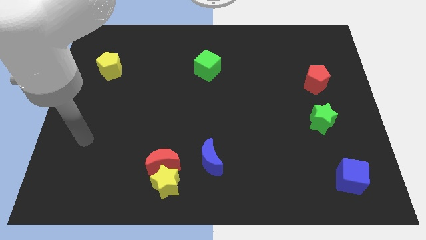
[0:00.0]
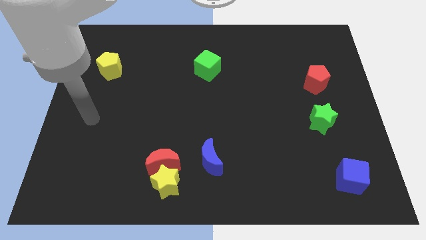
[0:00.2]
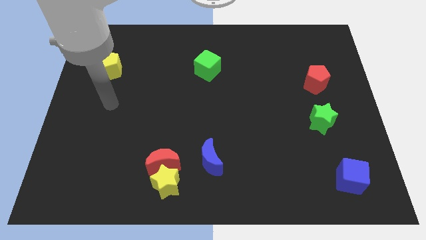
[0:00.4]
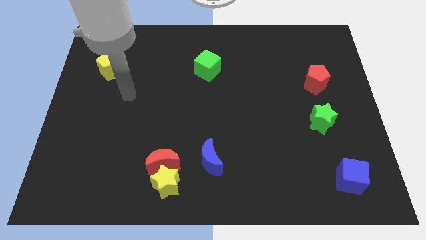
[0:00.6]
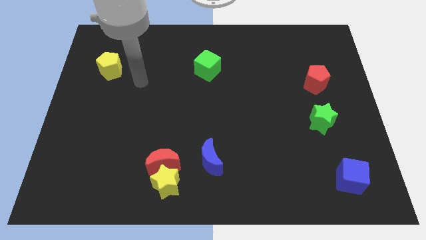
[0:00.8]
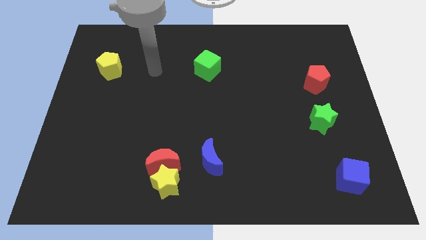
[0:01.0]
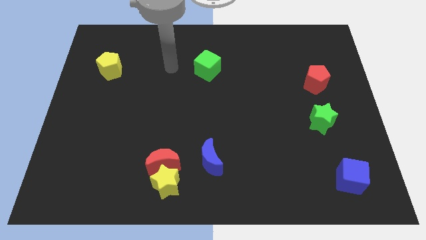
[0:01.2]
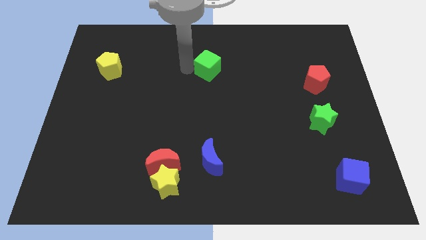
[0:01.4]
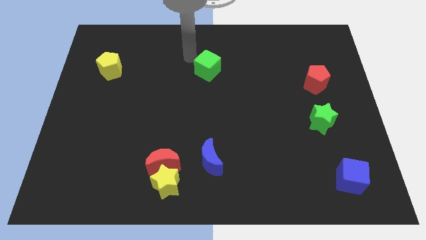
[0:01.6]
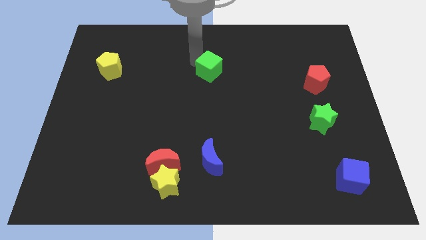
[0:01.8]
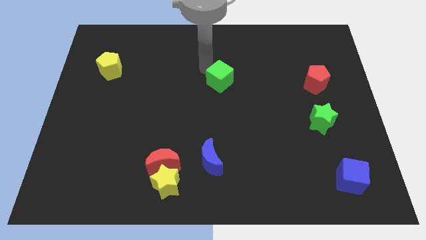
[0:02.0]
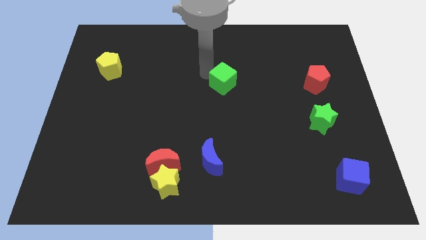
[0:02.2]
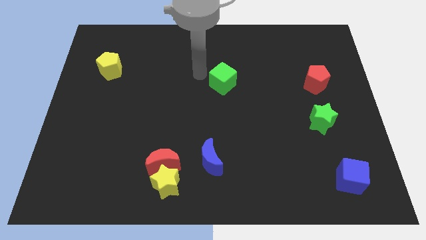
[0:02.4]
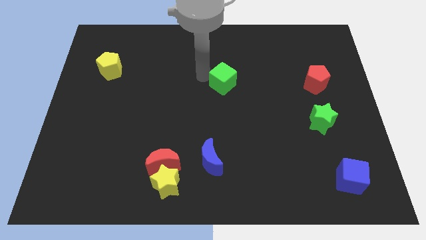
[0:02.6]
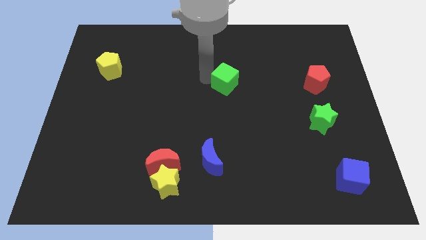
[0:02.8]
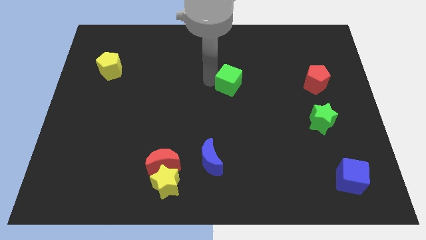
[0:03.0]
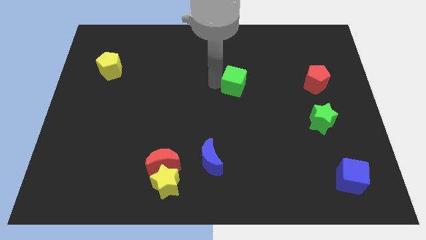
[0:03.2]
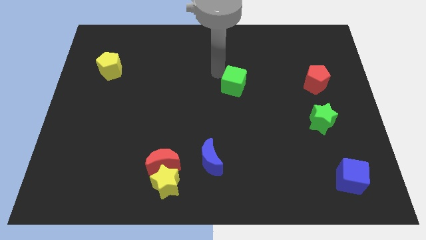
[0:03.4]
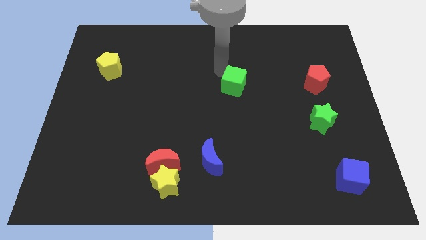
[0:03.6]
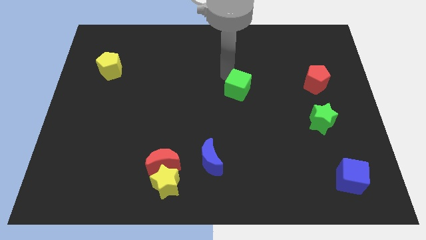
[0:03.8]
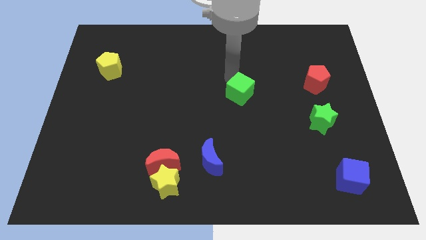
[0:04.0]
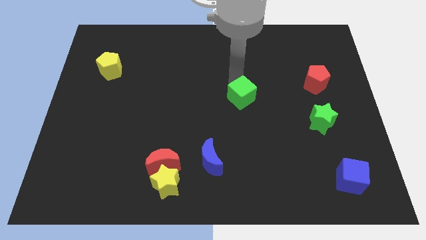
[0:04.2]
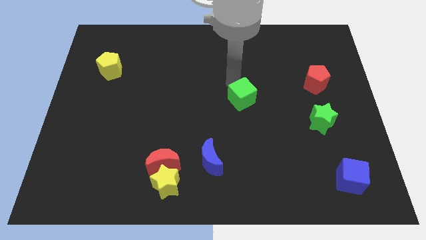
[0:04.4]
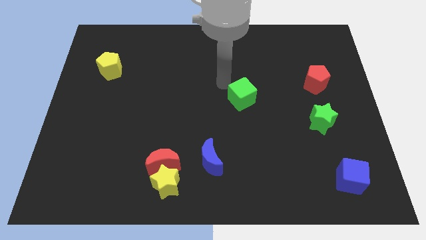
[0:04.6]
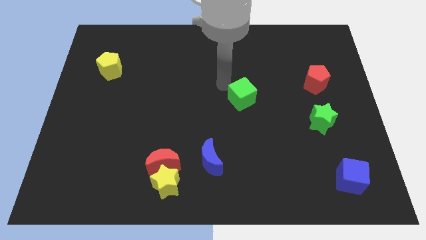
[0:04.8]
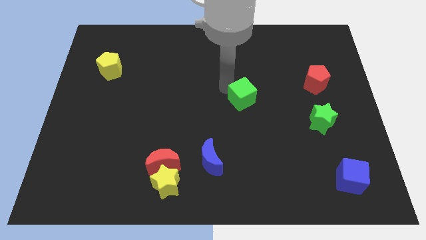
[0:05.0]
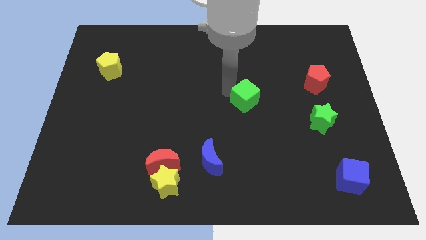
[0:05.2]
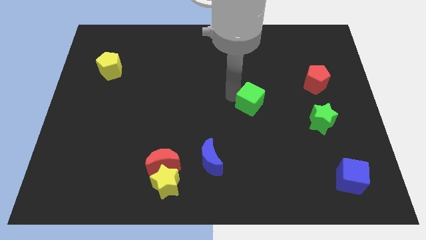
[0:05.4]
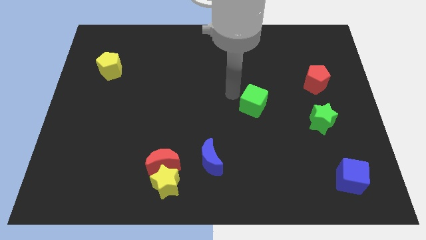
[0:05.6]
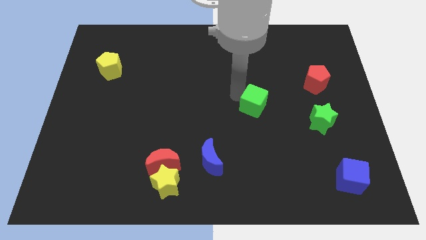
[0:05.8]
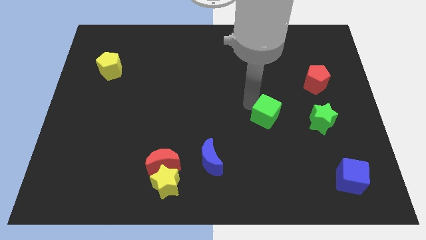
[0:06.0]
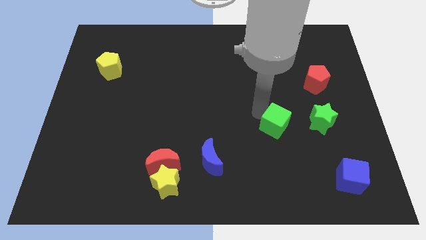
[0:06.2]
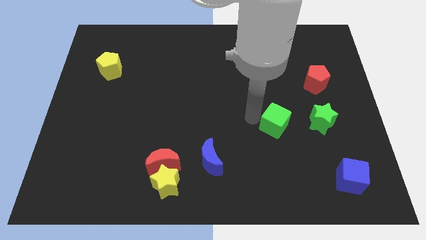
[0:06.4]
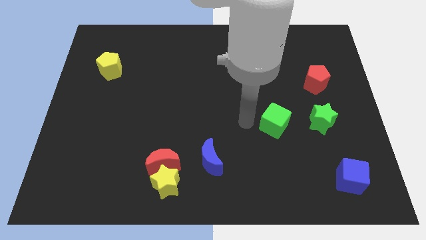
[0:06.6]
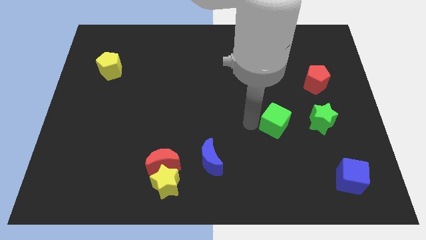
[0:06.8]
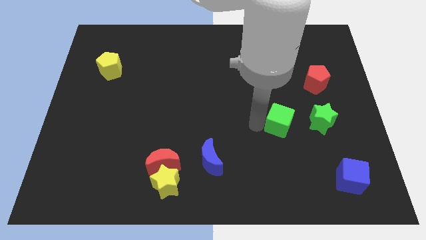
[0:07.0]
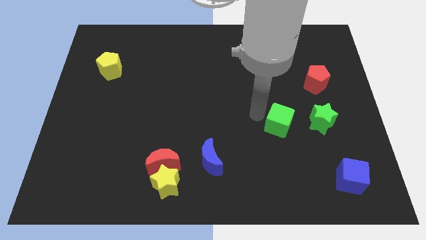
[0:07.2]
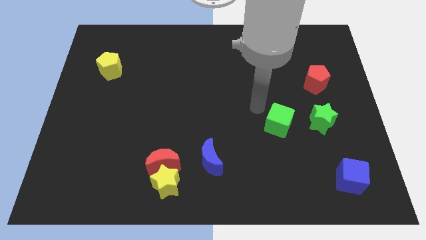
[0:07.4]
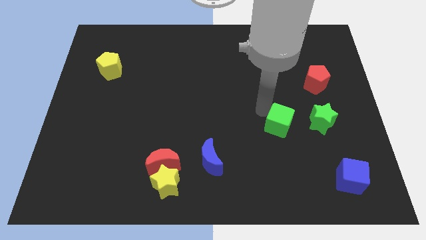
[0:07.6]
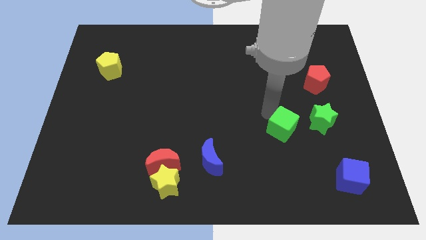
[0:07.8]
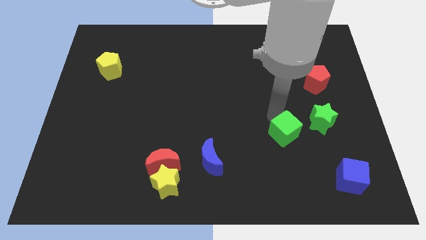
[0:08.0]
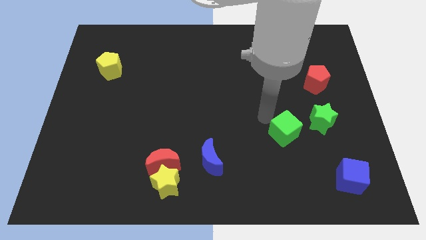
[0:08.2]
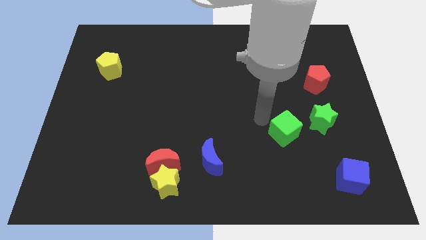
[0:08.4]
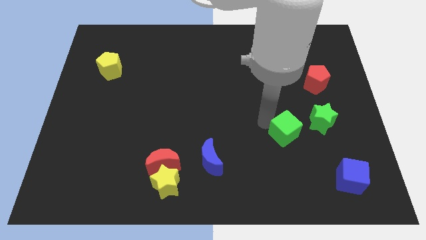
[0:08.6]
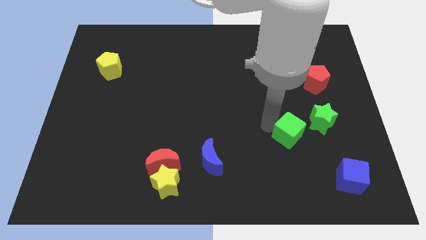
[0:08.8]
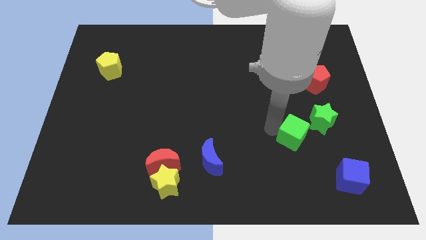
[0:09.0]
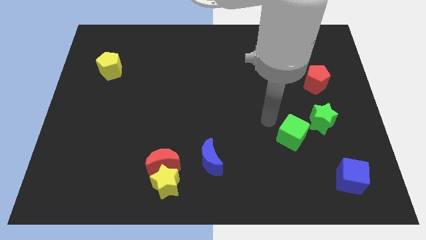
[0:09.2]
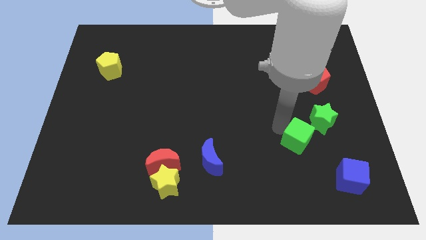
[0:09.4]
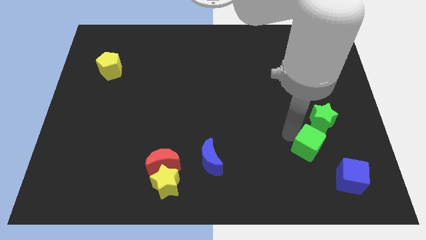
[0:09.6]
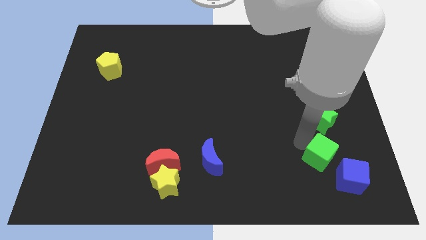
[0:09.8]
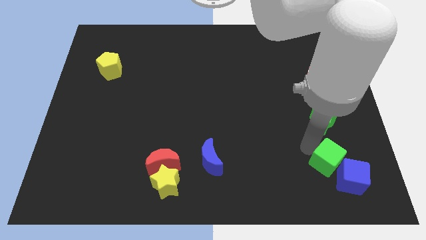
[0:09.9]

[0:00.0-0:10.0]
slide the green cube to the blue cube

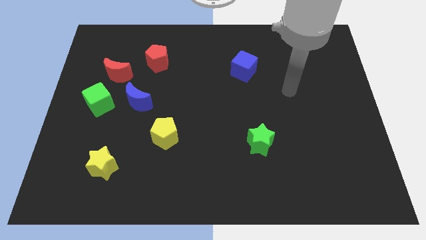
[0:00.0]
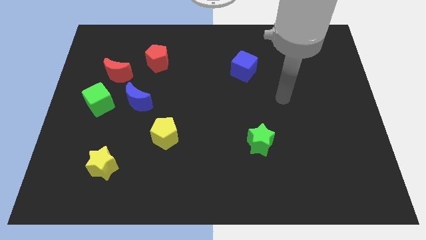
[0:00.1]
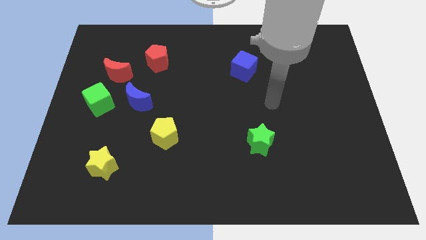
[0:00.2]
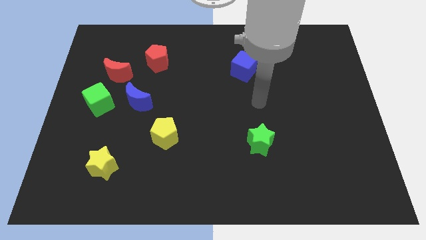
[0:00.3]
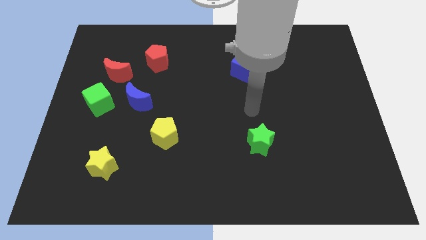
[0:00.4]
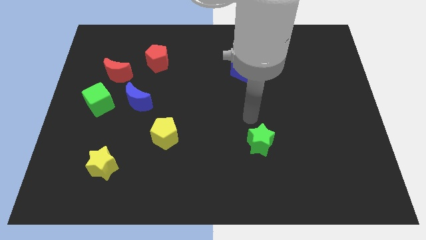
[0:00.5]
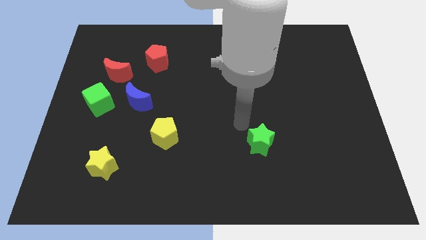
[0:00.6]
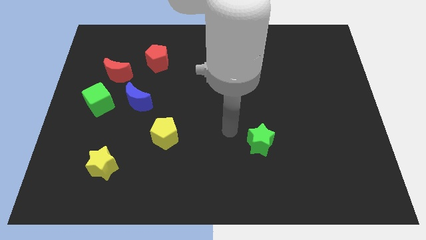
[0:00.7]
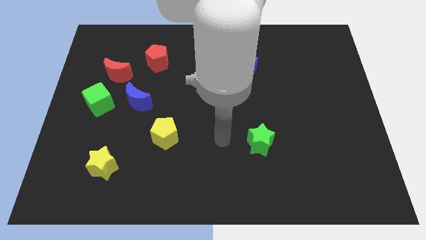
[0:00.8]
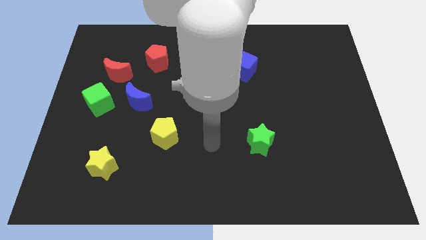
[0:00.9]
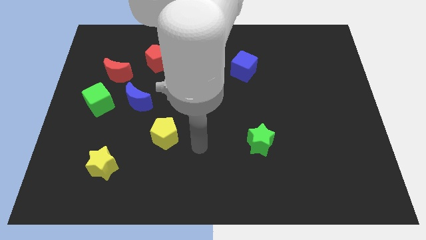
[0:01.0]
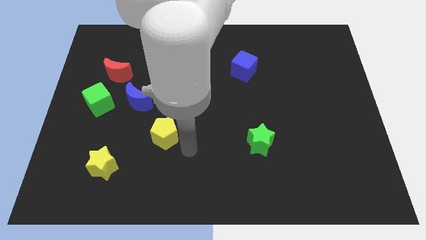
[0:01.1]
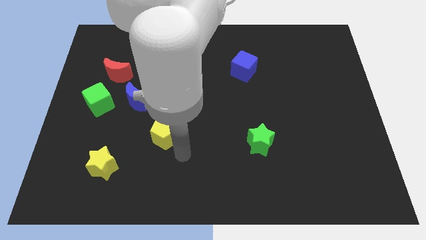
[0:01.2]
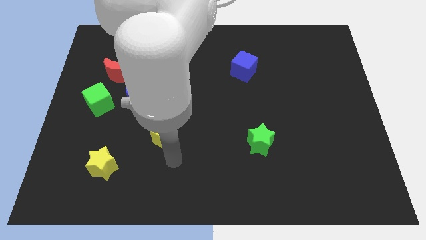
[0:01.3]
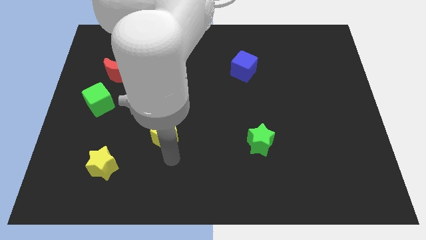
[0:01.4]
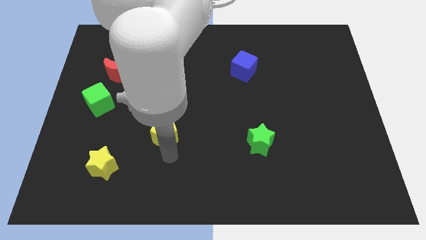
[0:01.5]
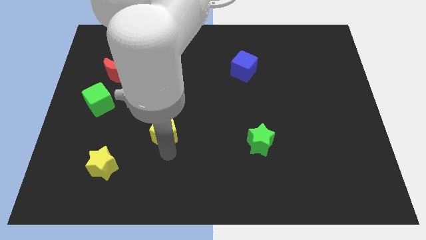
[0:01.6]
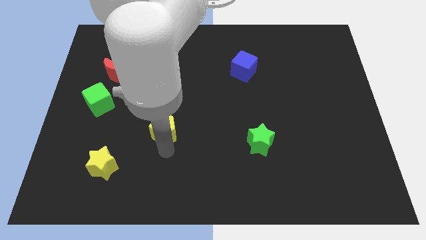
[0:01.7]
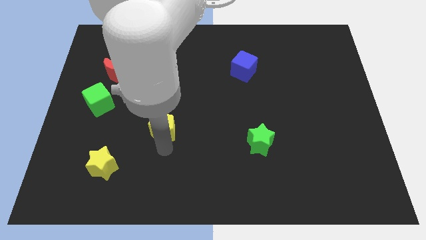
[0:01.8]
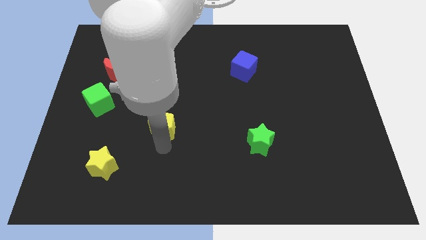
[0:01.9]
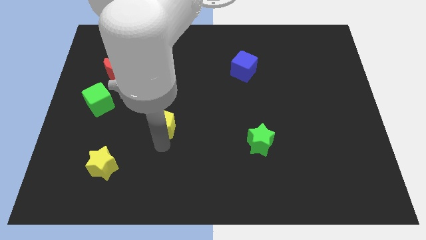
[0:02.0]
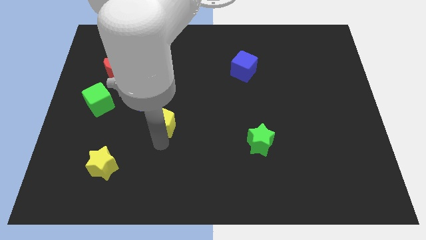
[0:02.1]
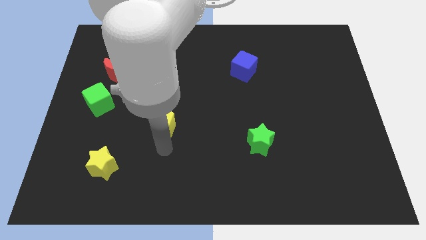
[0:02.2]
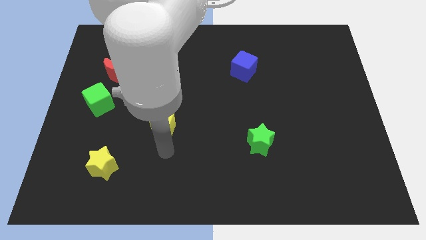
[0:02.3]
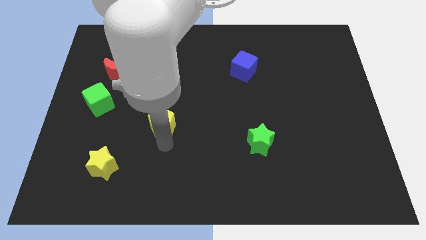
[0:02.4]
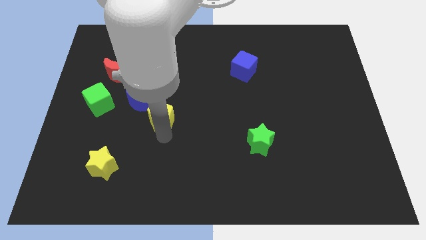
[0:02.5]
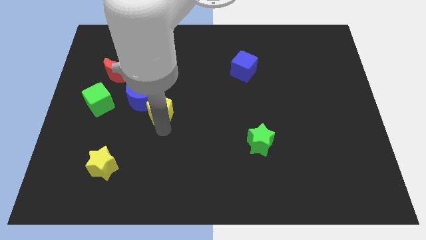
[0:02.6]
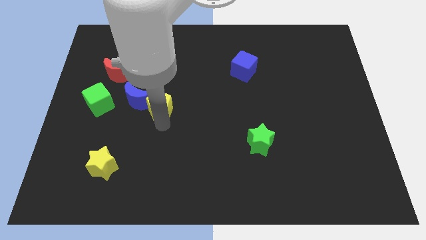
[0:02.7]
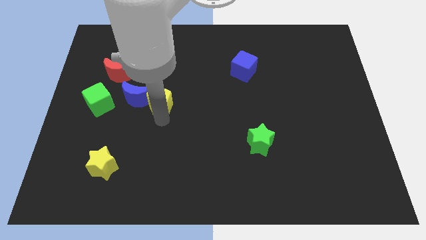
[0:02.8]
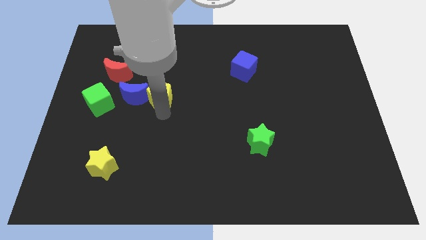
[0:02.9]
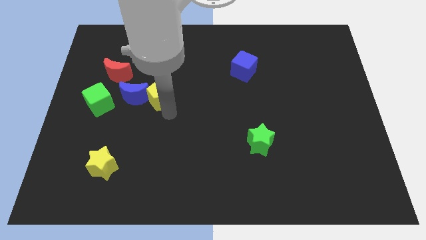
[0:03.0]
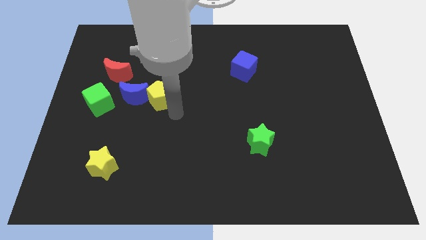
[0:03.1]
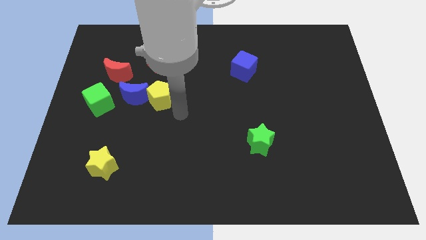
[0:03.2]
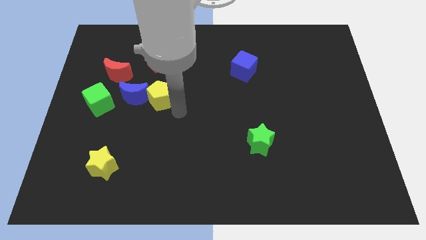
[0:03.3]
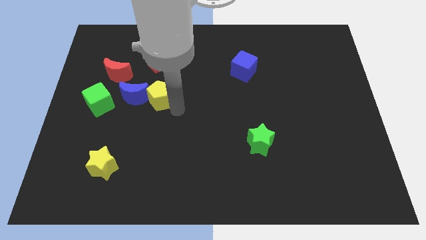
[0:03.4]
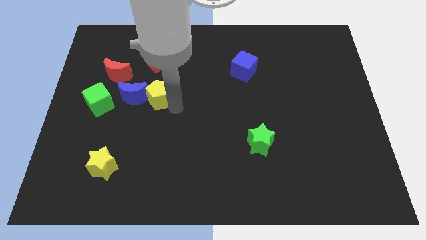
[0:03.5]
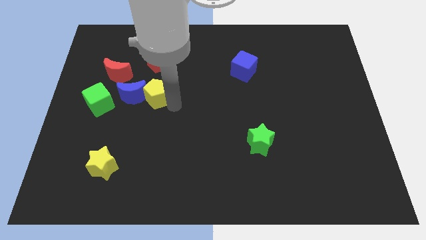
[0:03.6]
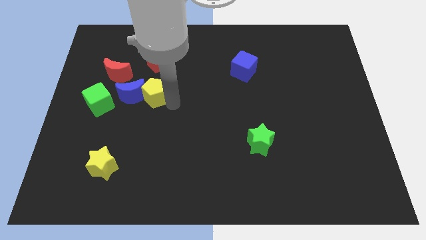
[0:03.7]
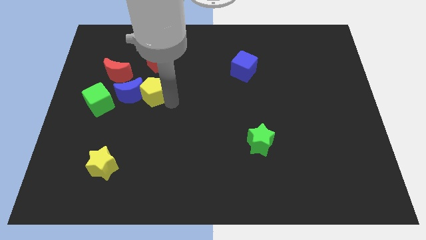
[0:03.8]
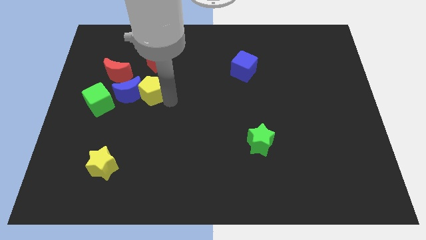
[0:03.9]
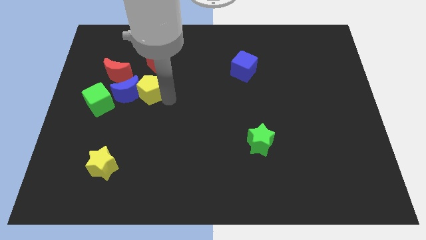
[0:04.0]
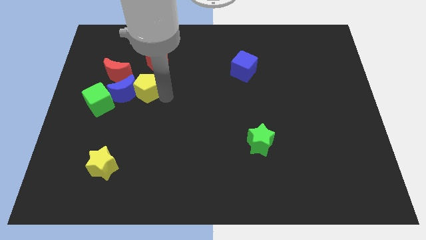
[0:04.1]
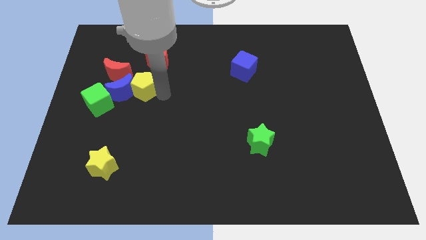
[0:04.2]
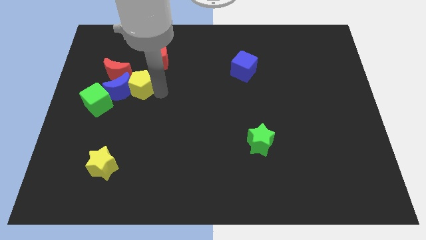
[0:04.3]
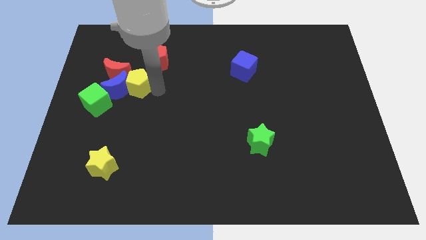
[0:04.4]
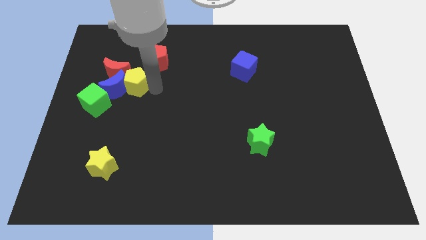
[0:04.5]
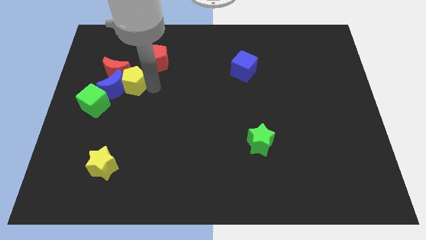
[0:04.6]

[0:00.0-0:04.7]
put the yellow pentagon close to the red moon
